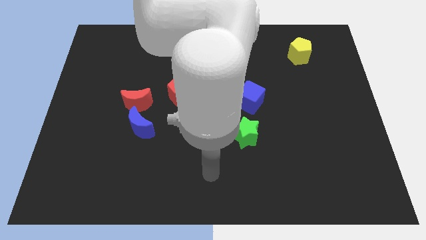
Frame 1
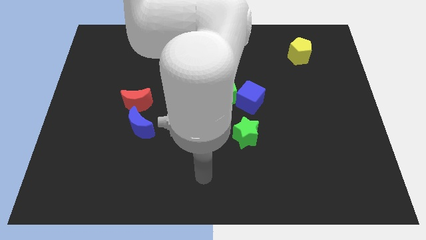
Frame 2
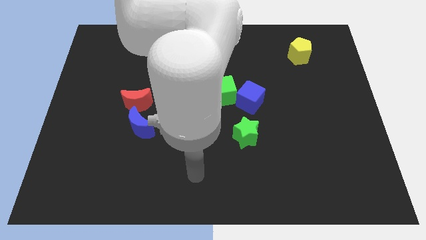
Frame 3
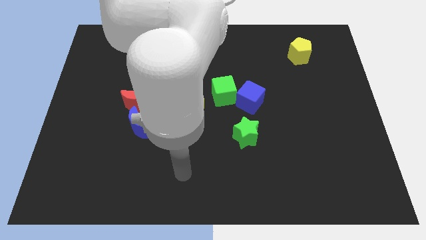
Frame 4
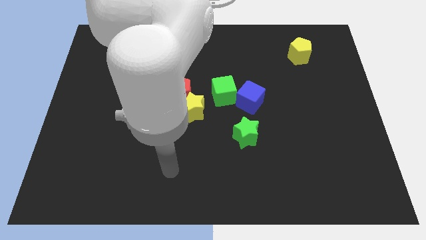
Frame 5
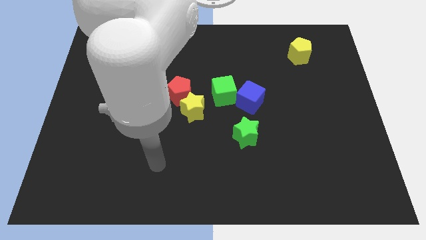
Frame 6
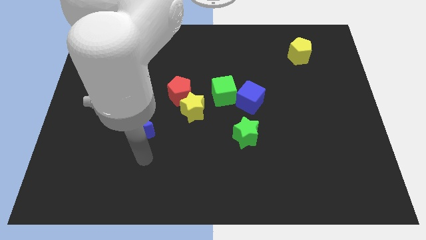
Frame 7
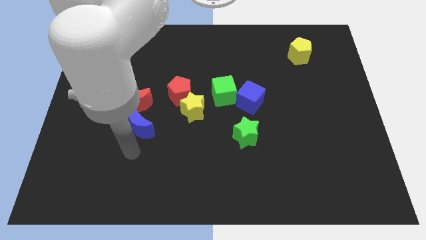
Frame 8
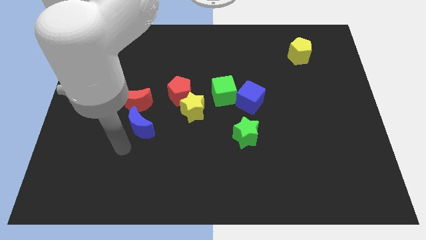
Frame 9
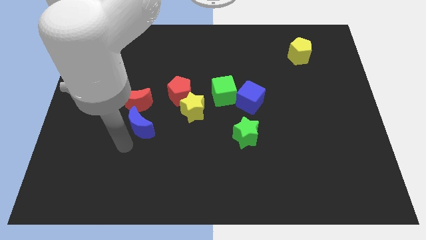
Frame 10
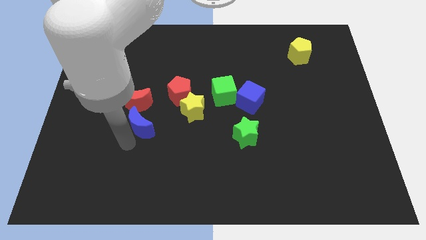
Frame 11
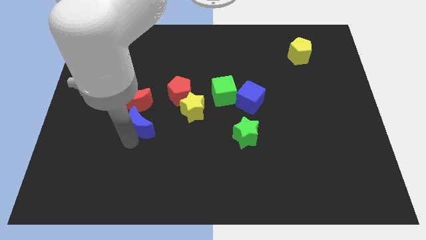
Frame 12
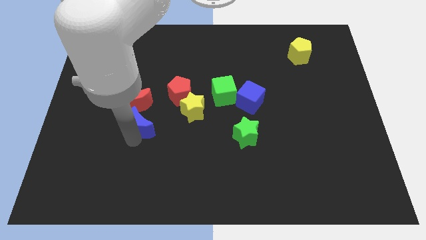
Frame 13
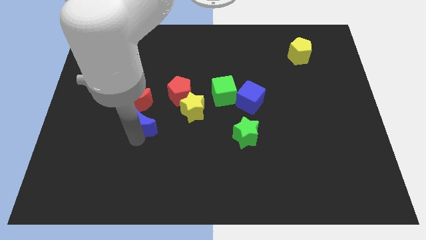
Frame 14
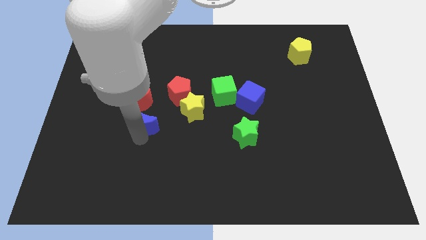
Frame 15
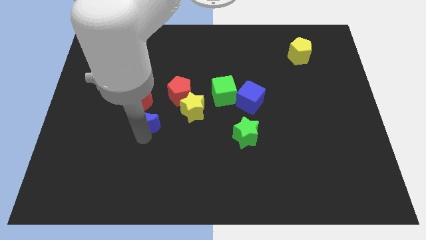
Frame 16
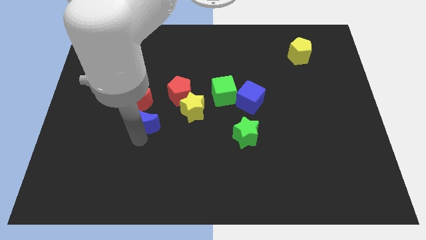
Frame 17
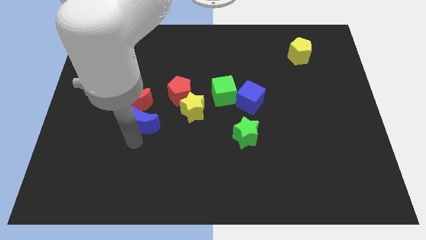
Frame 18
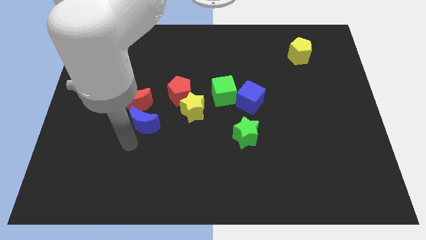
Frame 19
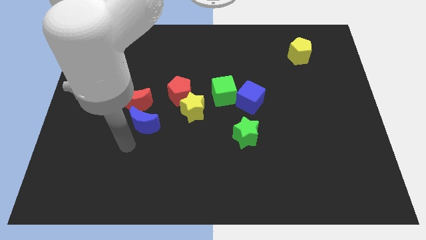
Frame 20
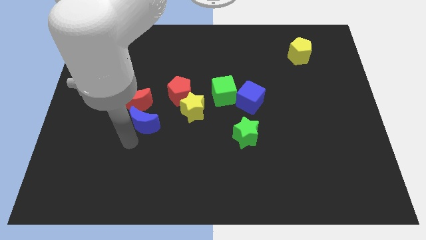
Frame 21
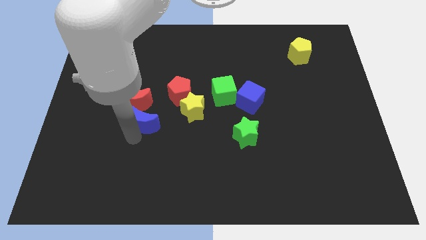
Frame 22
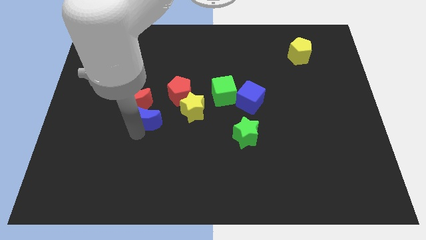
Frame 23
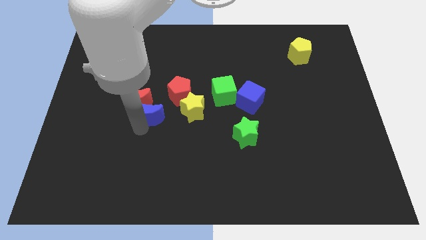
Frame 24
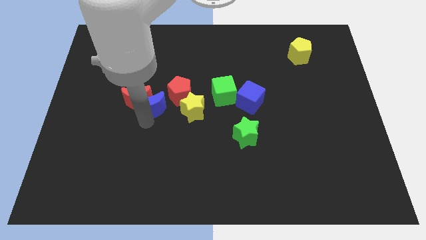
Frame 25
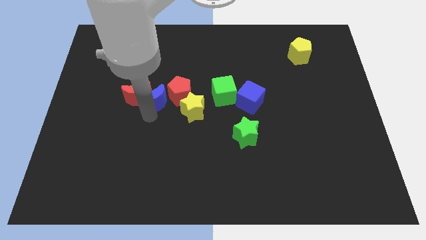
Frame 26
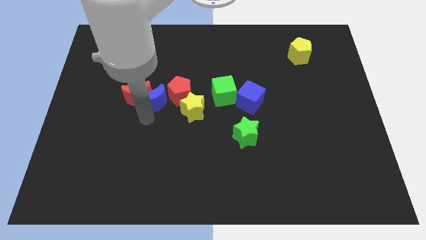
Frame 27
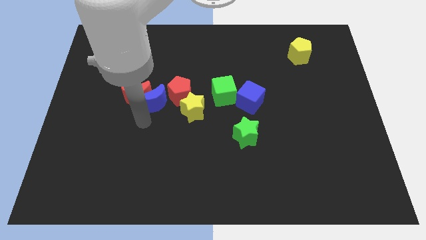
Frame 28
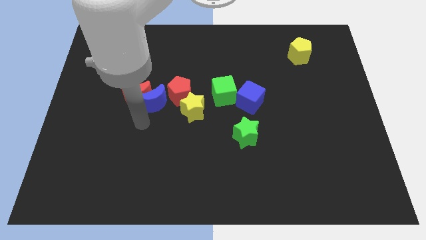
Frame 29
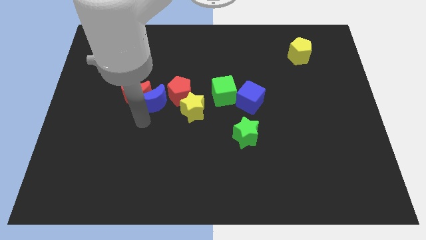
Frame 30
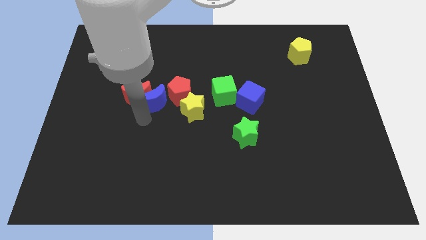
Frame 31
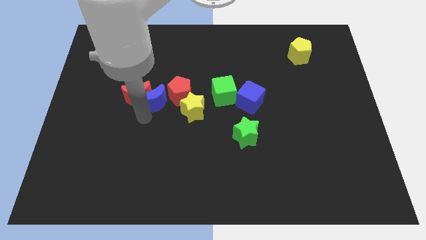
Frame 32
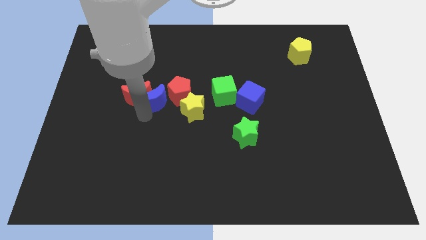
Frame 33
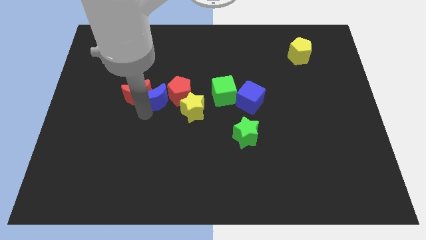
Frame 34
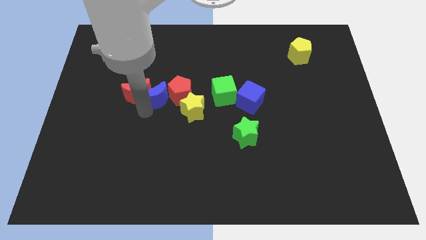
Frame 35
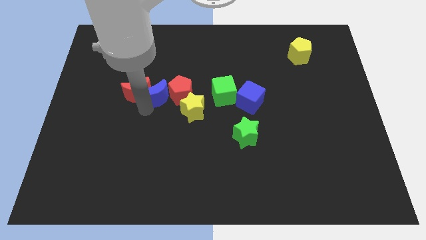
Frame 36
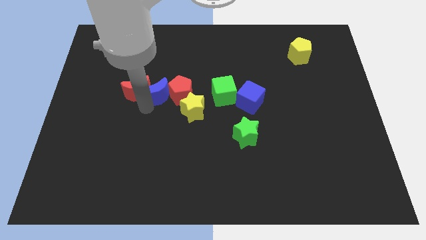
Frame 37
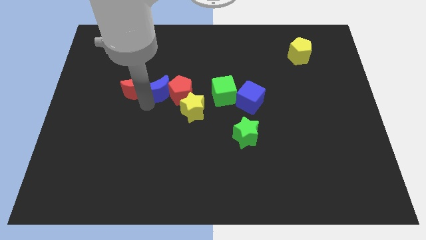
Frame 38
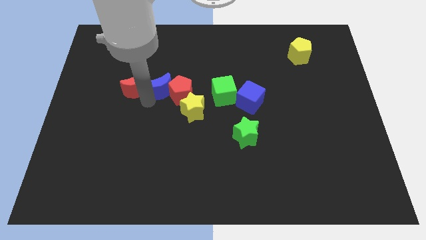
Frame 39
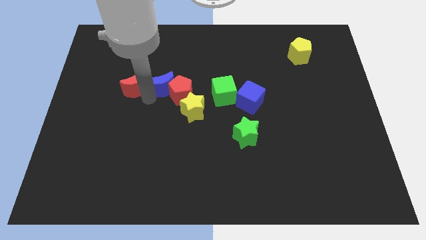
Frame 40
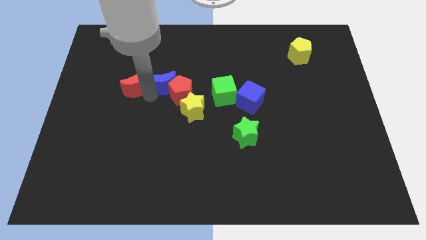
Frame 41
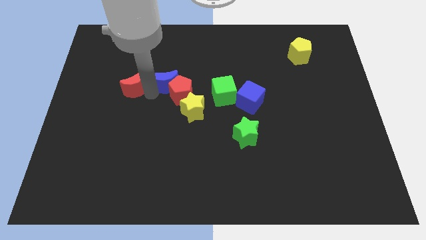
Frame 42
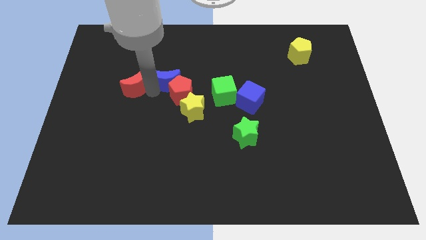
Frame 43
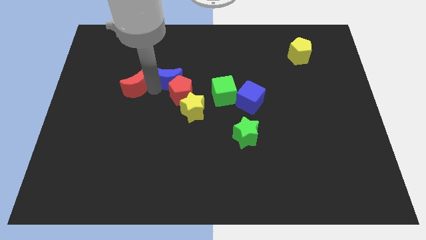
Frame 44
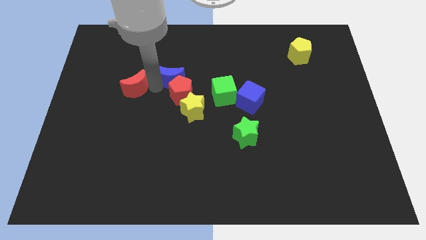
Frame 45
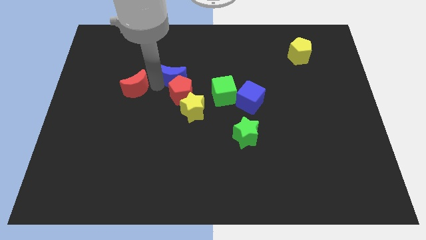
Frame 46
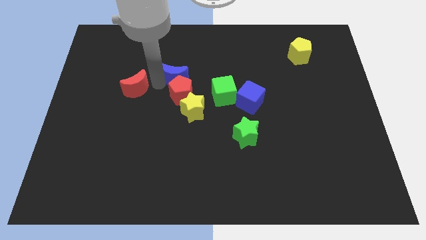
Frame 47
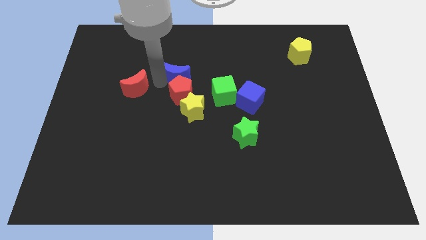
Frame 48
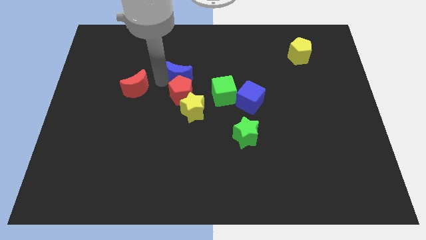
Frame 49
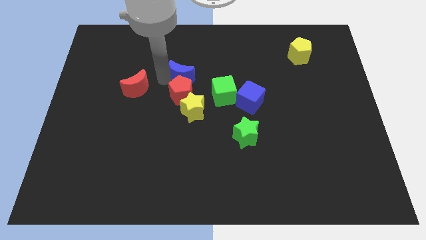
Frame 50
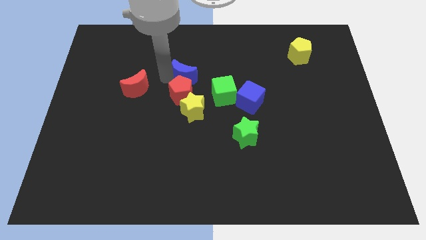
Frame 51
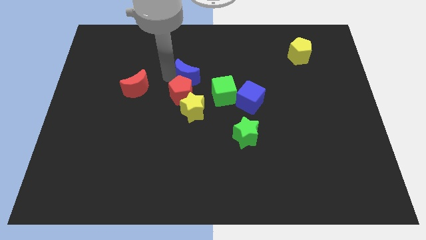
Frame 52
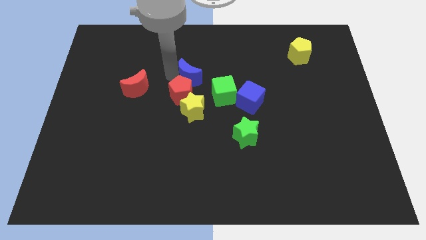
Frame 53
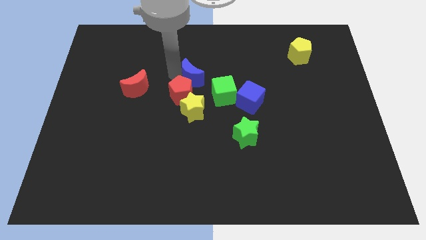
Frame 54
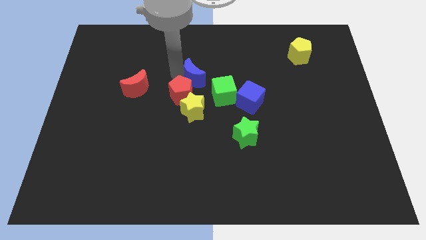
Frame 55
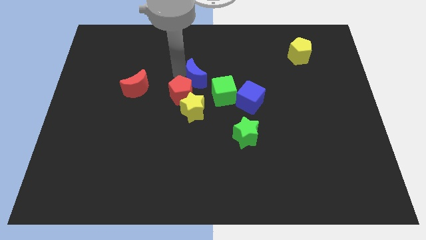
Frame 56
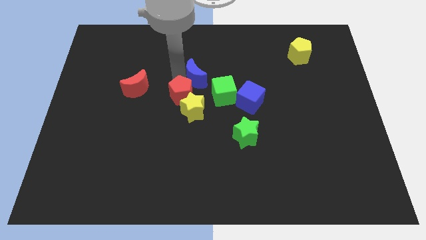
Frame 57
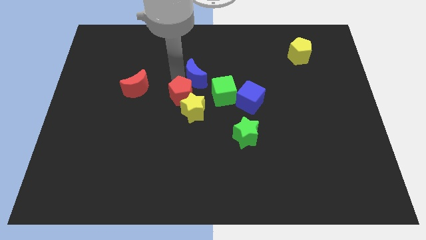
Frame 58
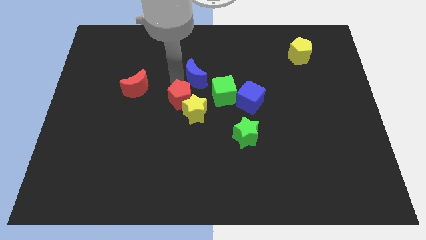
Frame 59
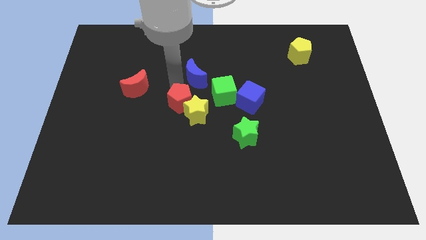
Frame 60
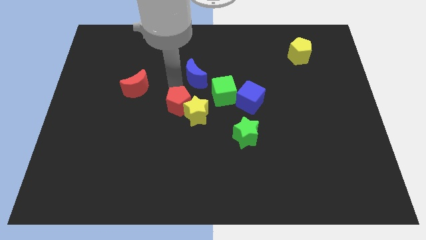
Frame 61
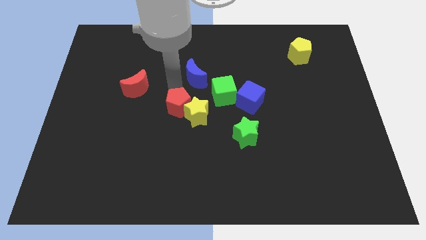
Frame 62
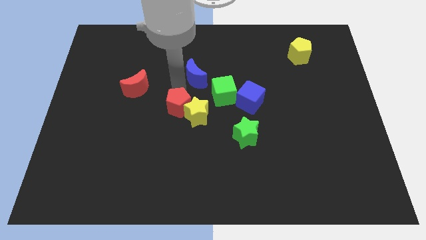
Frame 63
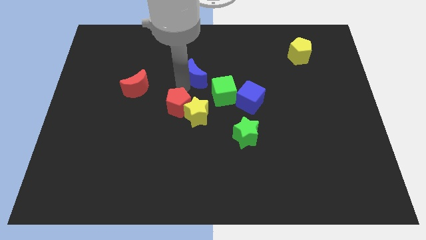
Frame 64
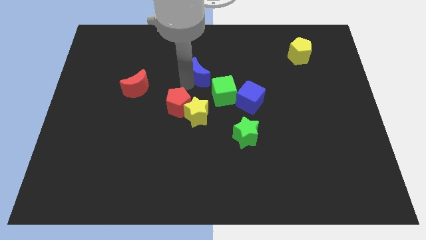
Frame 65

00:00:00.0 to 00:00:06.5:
push the blue moon diagonally up and to the right

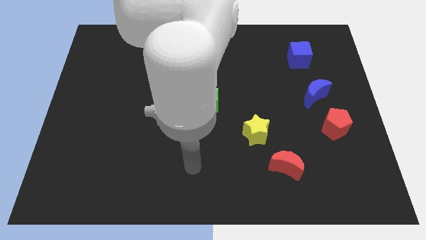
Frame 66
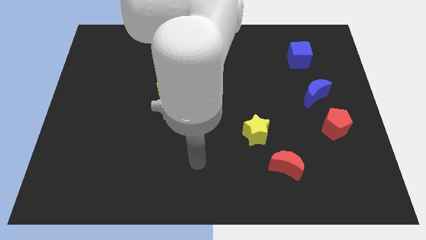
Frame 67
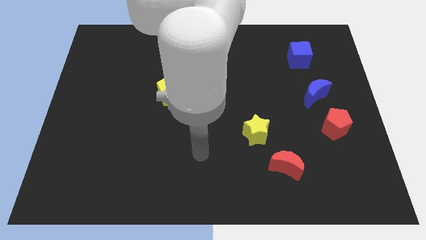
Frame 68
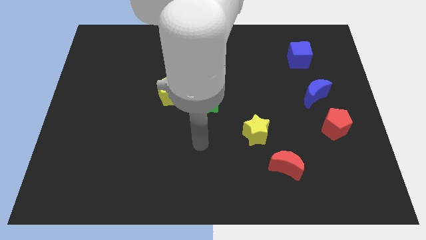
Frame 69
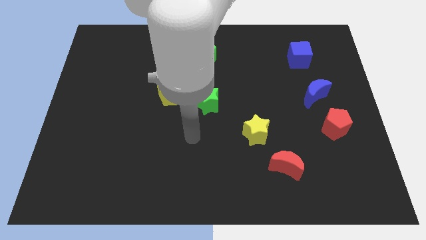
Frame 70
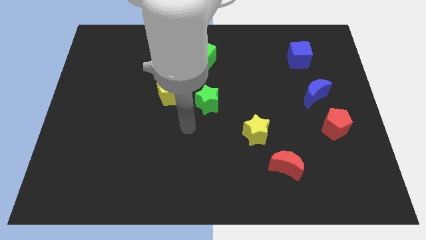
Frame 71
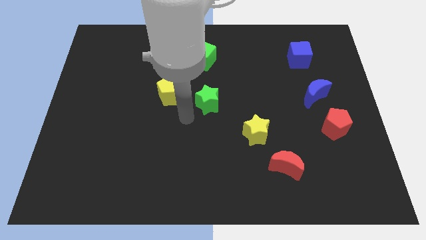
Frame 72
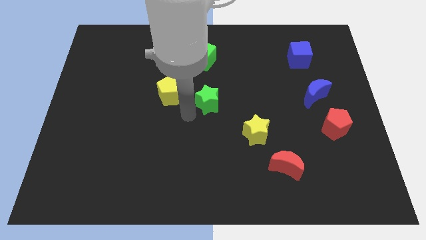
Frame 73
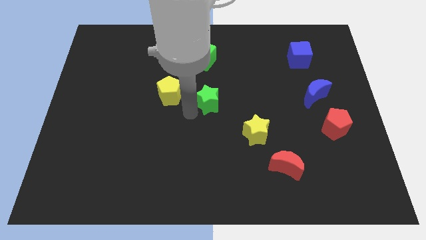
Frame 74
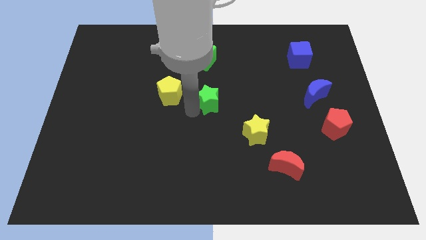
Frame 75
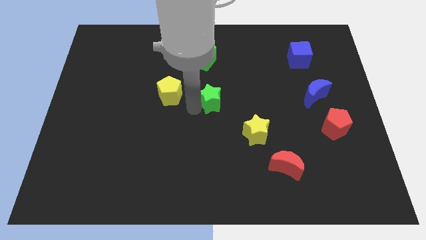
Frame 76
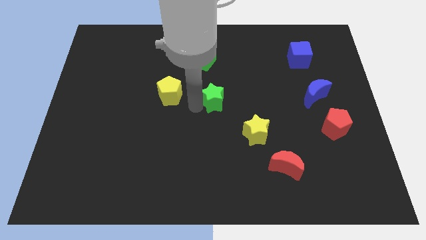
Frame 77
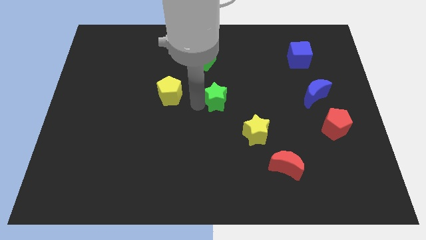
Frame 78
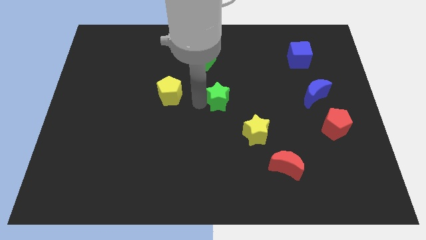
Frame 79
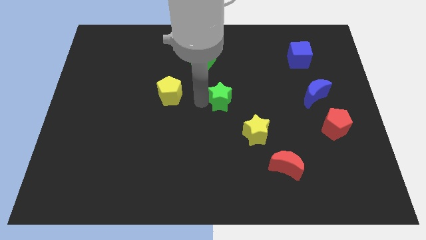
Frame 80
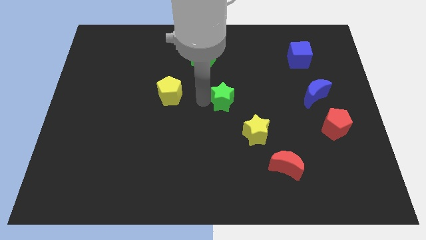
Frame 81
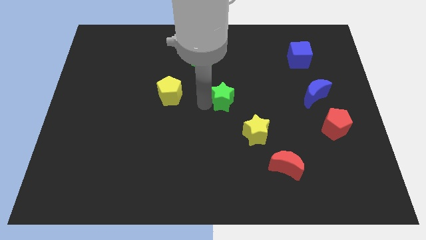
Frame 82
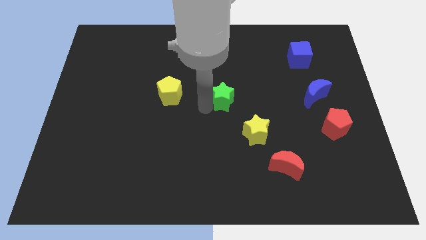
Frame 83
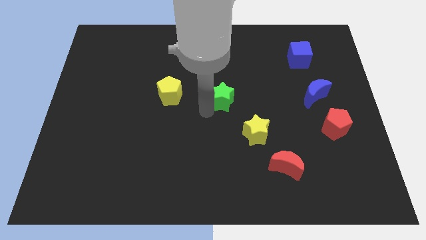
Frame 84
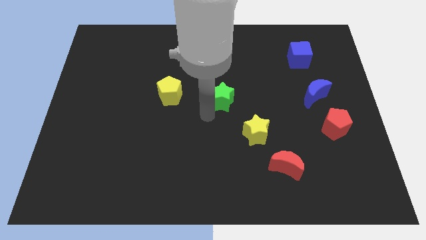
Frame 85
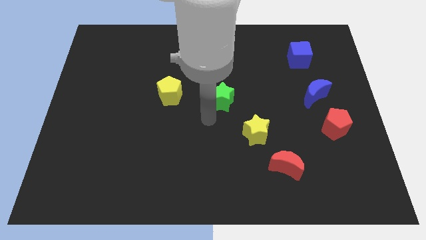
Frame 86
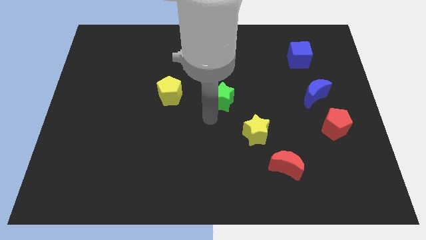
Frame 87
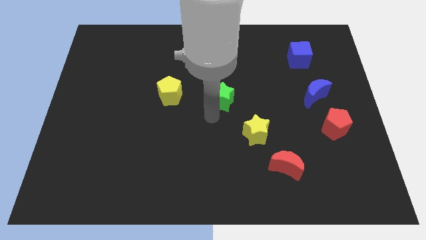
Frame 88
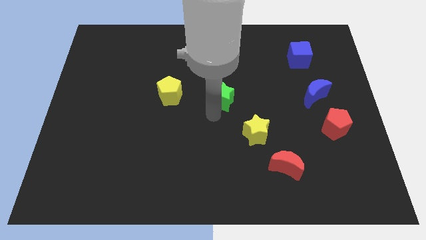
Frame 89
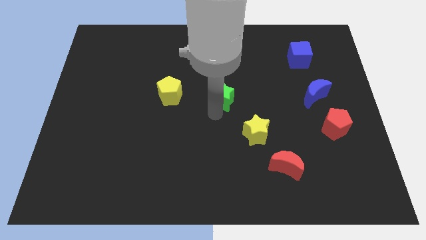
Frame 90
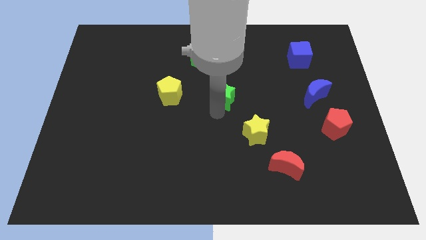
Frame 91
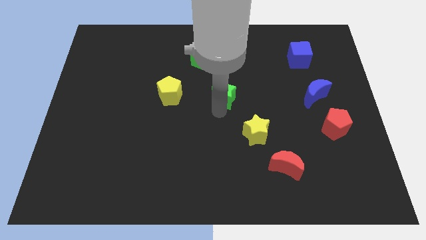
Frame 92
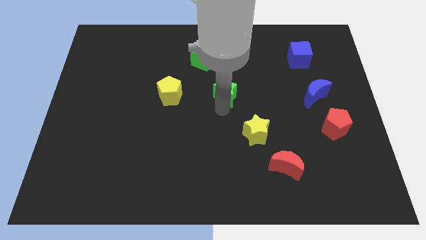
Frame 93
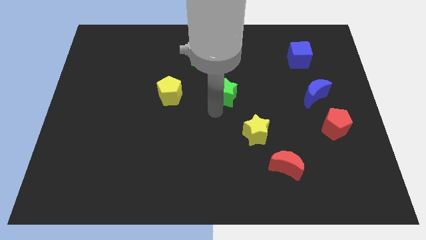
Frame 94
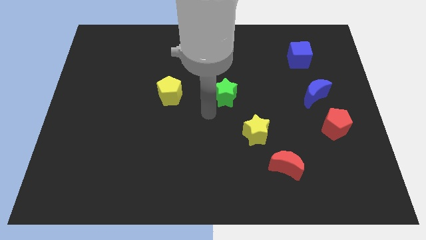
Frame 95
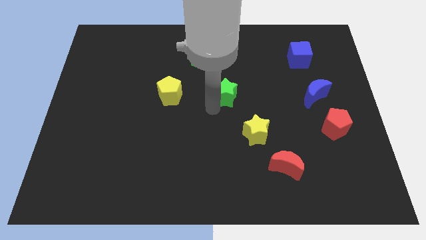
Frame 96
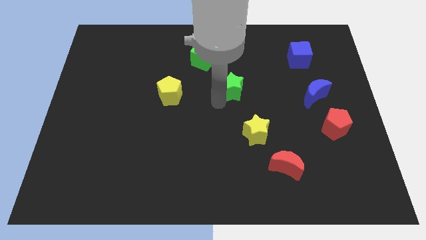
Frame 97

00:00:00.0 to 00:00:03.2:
slightly slide the green star up and then to the right
